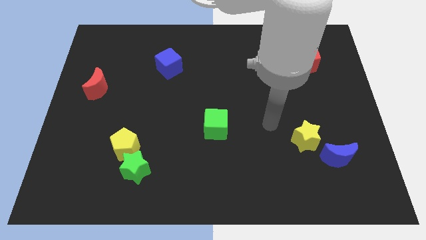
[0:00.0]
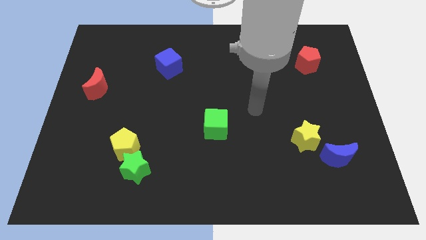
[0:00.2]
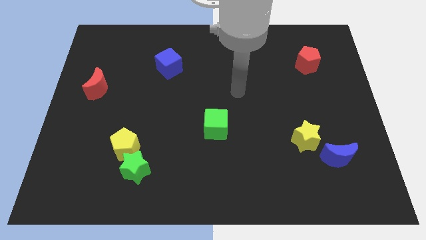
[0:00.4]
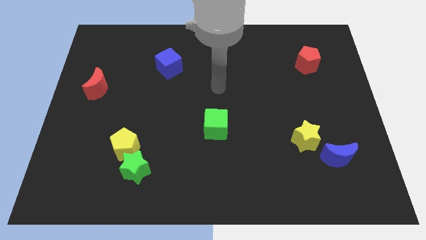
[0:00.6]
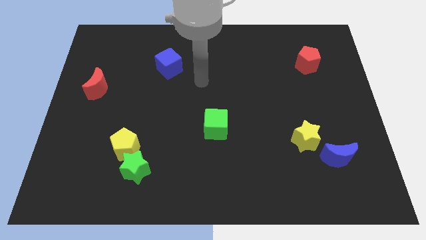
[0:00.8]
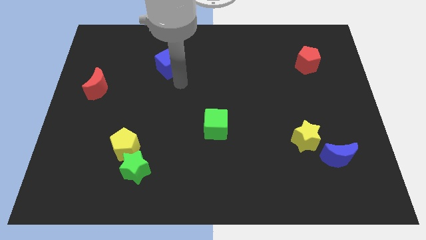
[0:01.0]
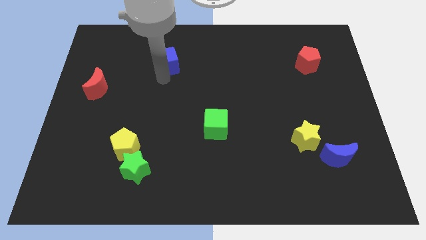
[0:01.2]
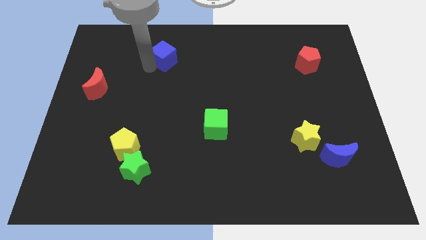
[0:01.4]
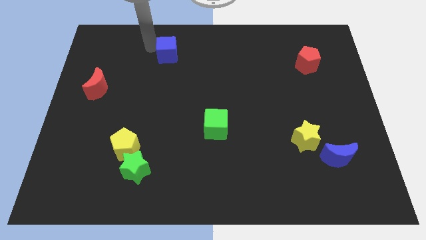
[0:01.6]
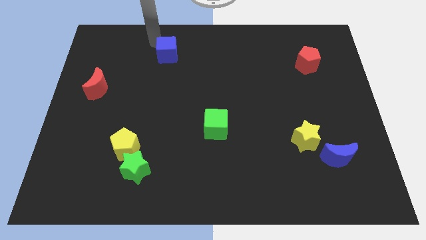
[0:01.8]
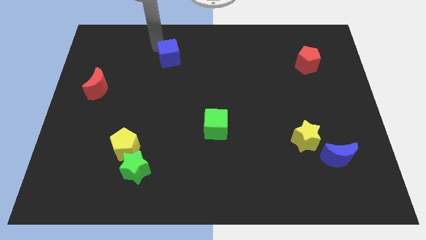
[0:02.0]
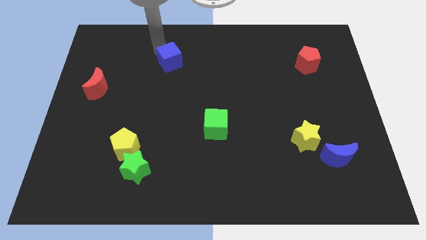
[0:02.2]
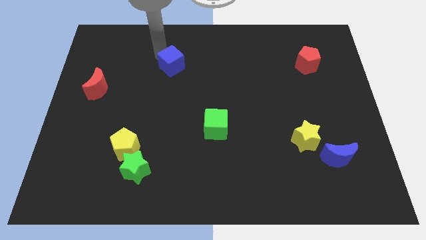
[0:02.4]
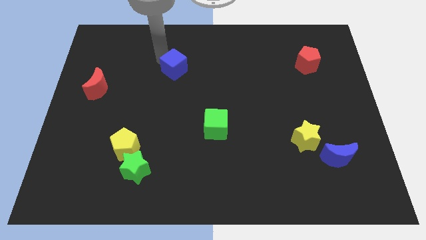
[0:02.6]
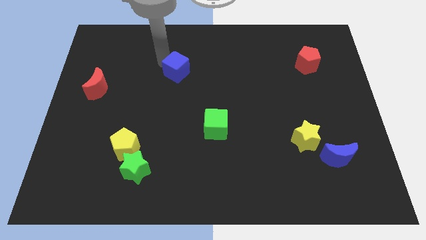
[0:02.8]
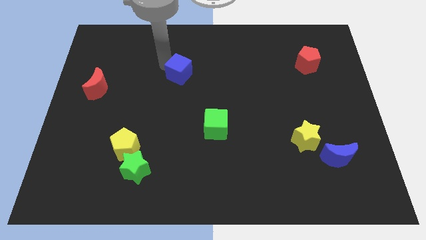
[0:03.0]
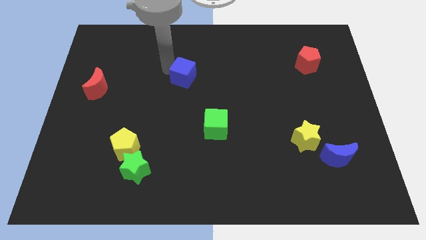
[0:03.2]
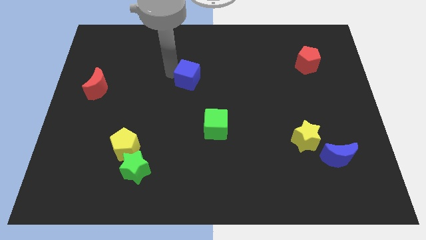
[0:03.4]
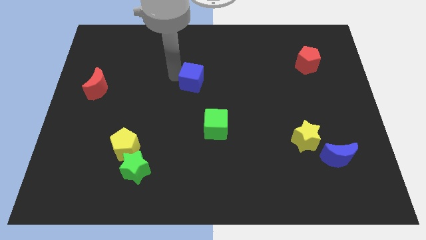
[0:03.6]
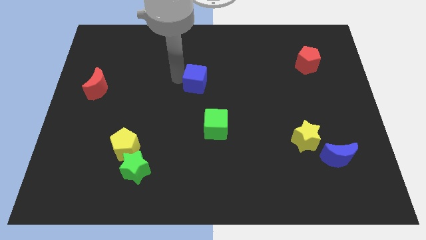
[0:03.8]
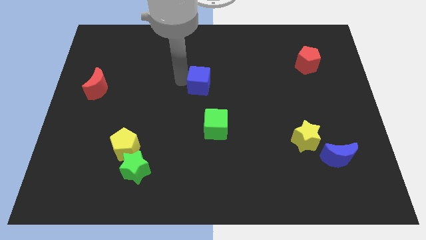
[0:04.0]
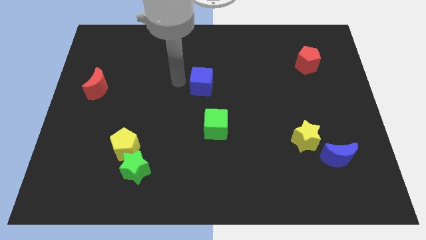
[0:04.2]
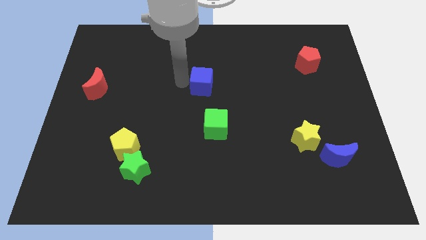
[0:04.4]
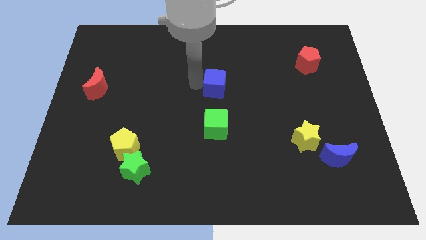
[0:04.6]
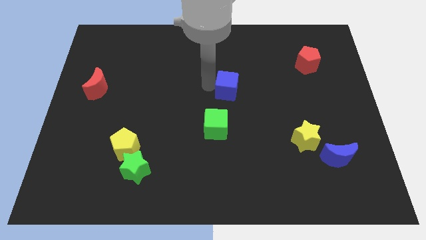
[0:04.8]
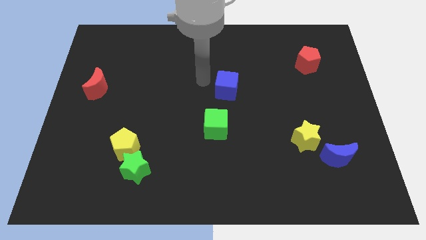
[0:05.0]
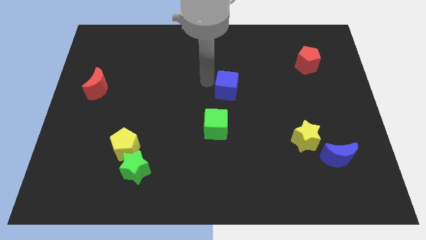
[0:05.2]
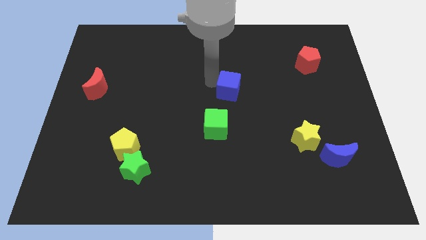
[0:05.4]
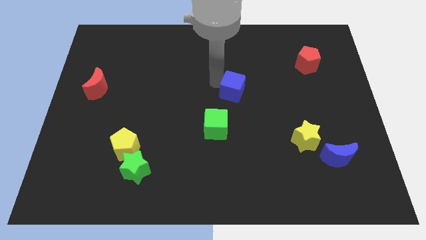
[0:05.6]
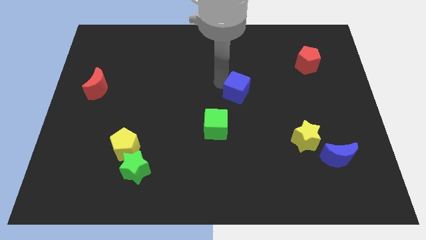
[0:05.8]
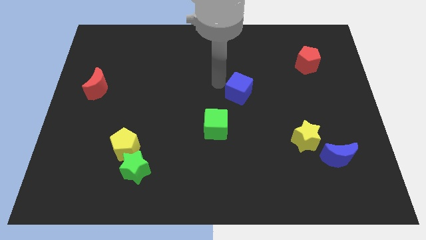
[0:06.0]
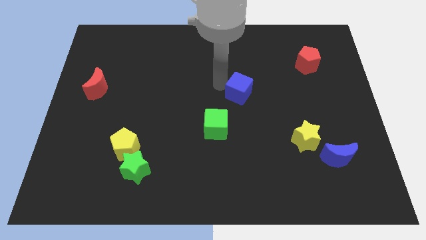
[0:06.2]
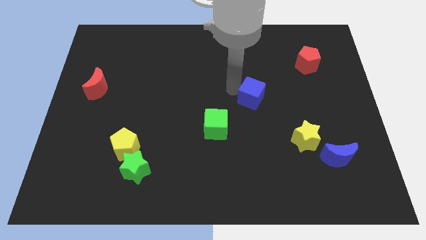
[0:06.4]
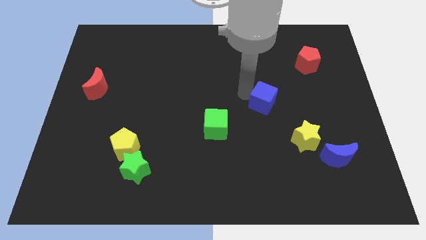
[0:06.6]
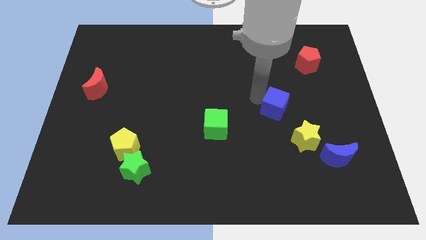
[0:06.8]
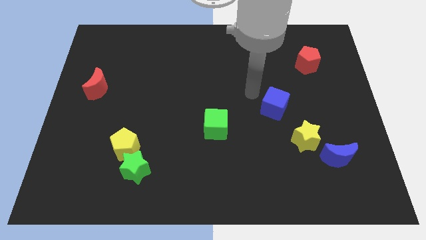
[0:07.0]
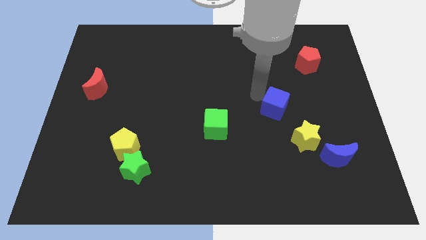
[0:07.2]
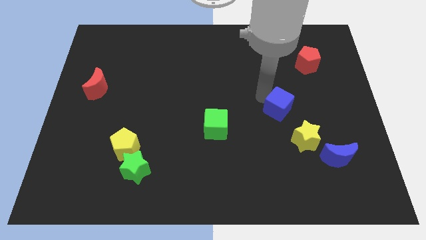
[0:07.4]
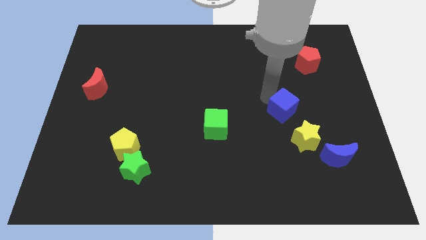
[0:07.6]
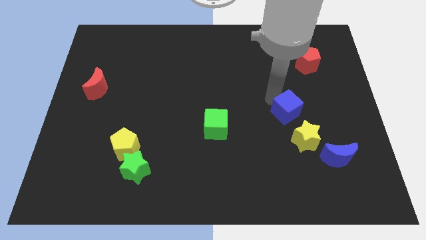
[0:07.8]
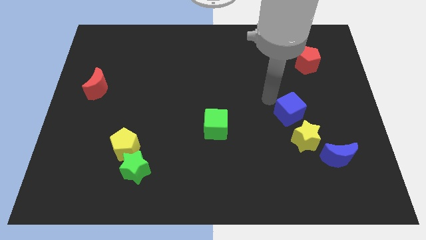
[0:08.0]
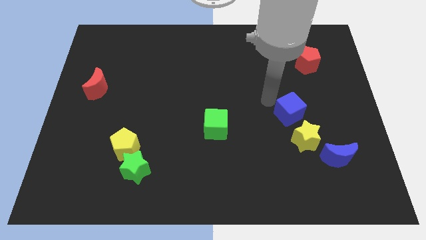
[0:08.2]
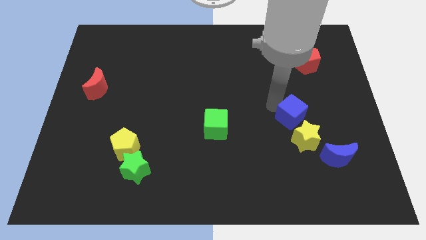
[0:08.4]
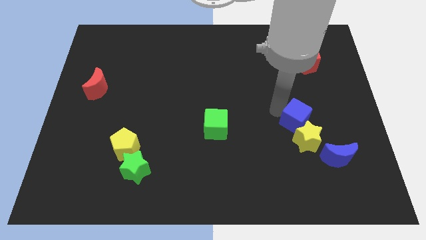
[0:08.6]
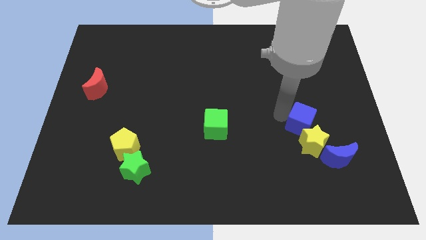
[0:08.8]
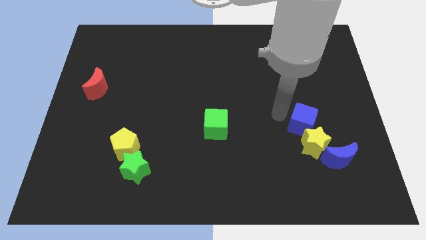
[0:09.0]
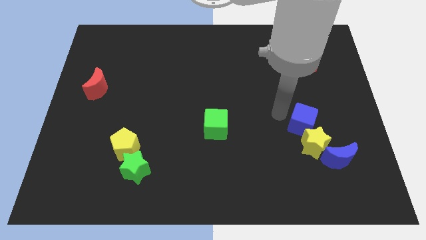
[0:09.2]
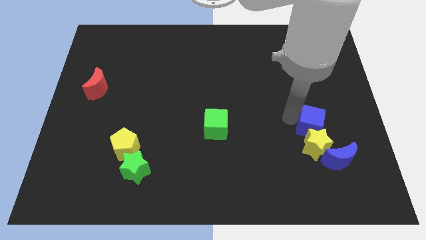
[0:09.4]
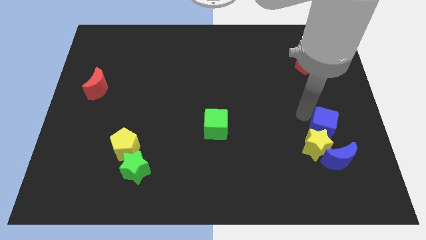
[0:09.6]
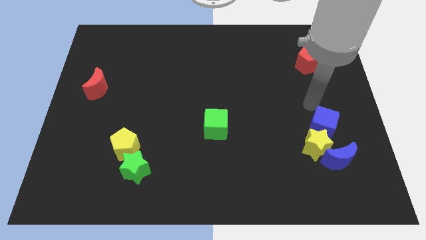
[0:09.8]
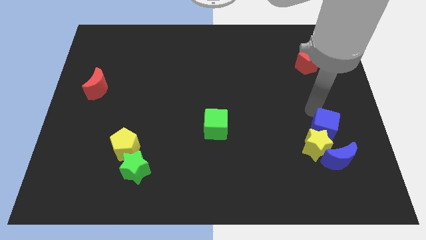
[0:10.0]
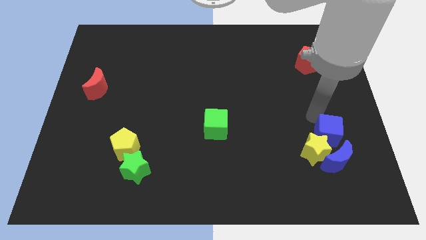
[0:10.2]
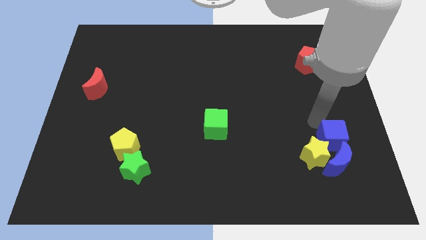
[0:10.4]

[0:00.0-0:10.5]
push the blue cube next to the blue moon

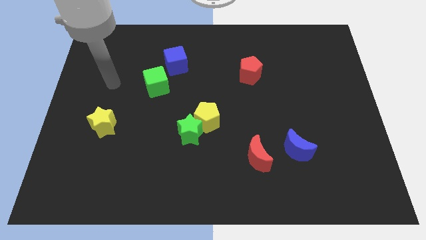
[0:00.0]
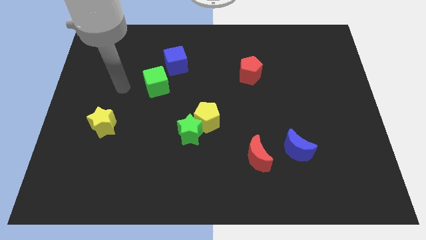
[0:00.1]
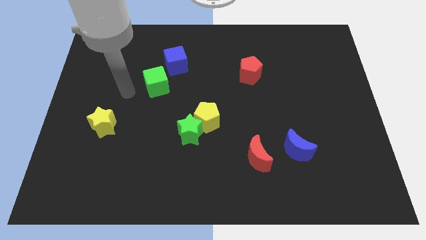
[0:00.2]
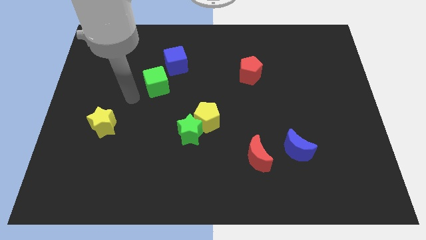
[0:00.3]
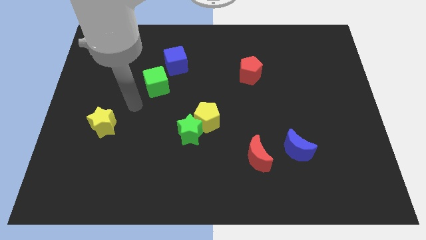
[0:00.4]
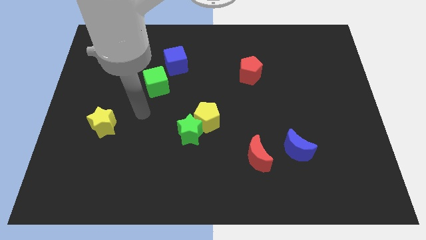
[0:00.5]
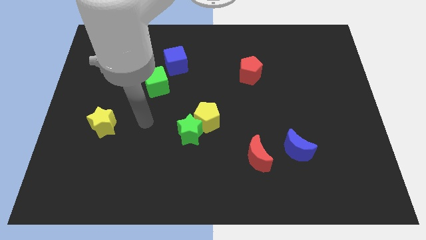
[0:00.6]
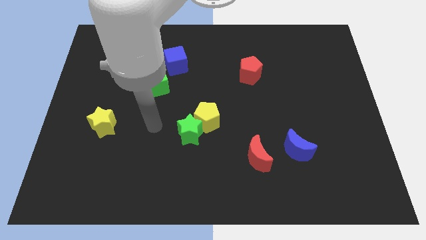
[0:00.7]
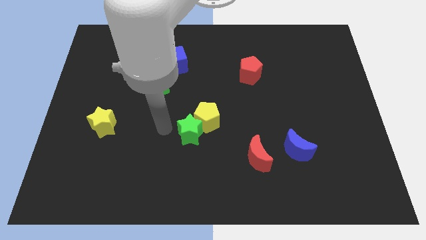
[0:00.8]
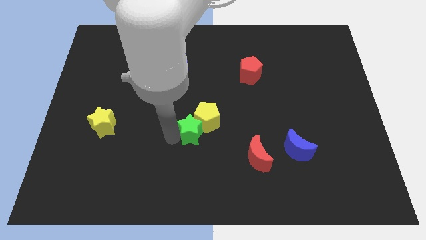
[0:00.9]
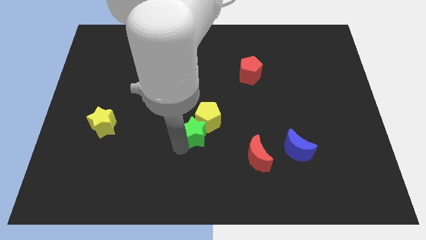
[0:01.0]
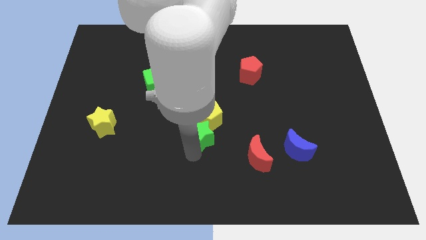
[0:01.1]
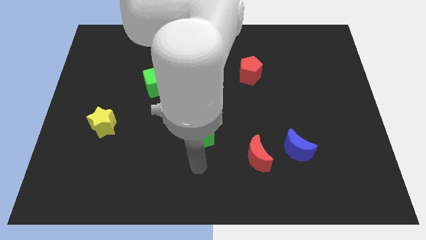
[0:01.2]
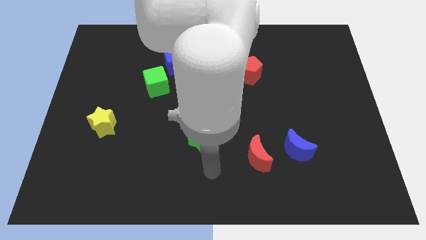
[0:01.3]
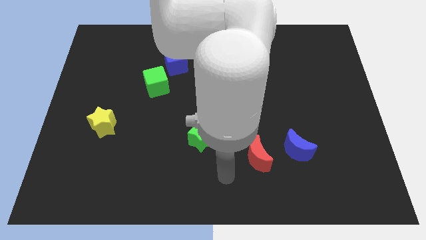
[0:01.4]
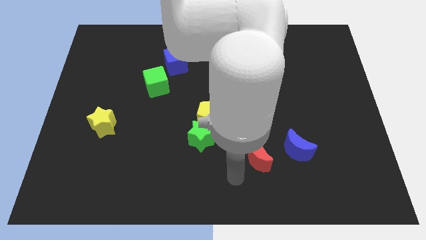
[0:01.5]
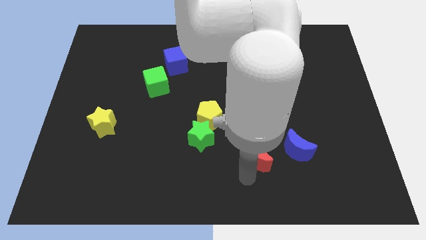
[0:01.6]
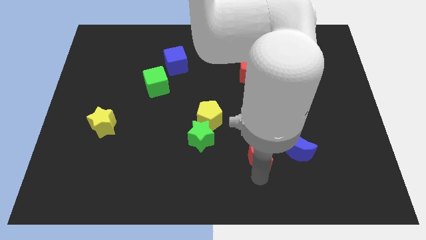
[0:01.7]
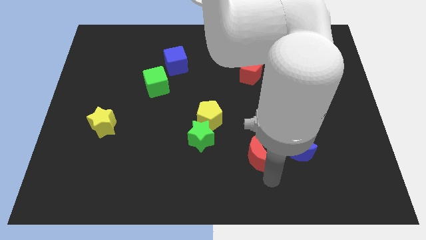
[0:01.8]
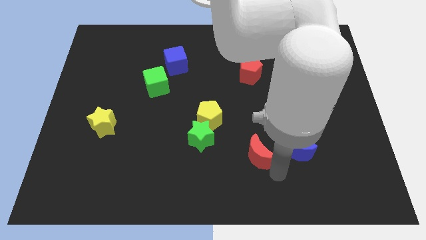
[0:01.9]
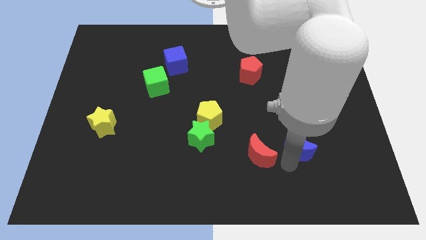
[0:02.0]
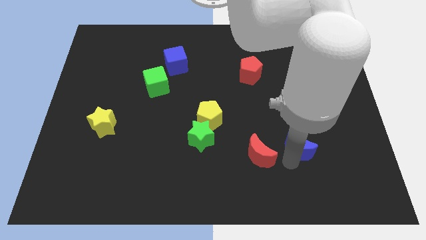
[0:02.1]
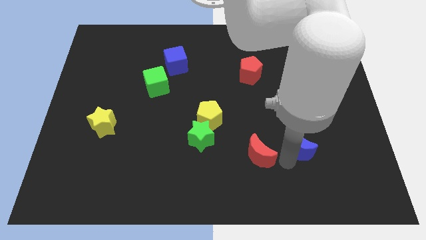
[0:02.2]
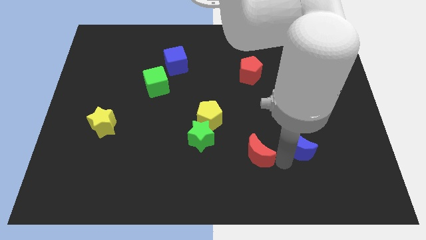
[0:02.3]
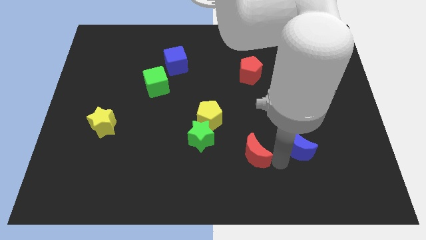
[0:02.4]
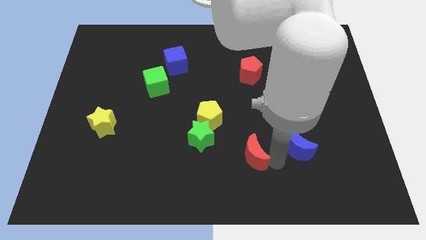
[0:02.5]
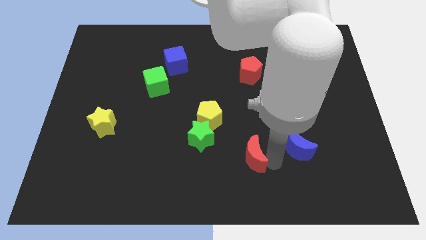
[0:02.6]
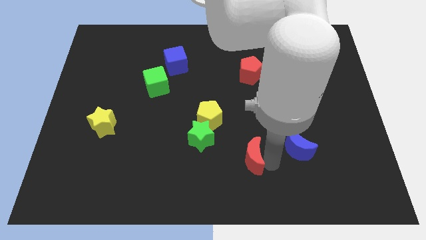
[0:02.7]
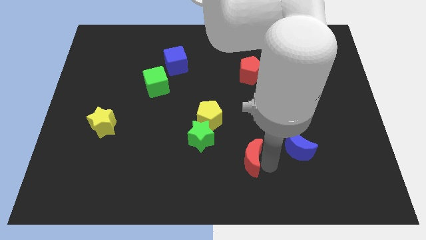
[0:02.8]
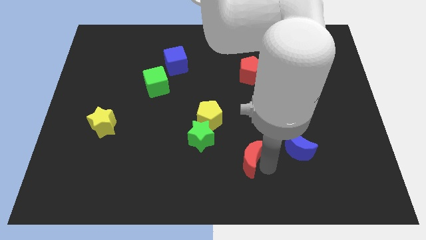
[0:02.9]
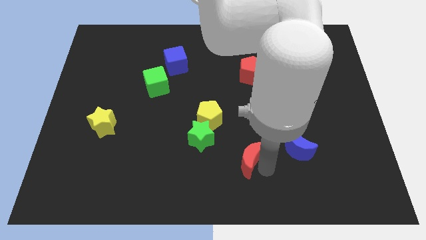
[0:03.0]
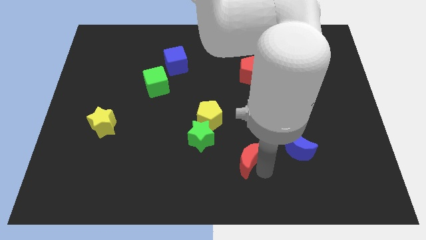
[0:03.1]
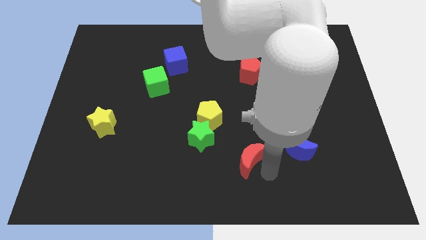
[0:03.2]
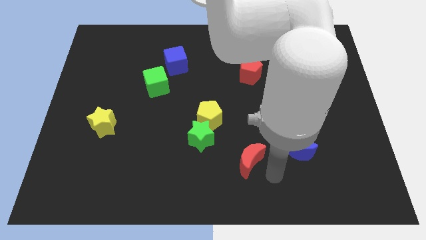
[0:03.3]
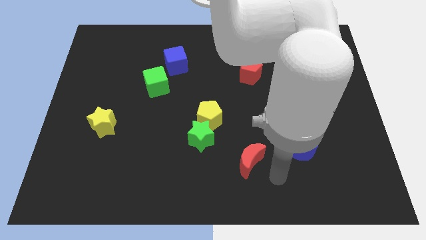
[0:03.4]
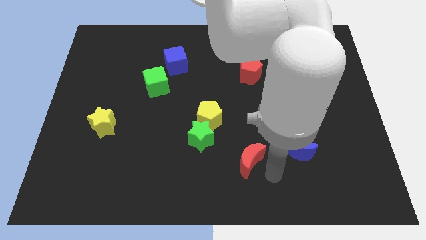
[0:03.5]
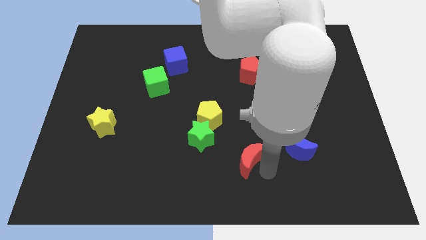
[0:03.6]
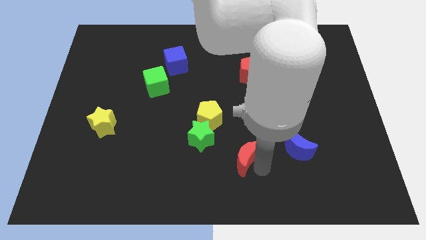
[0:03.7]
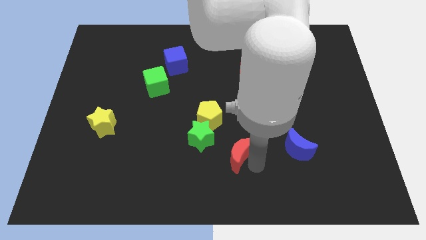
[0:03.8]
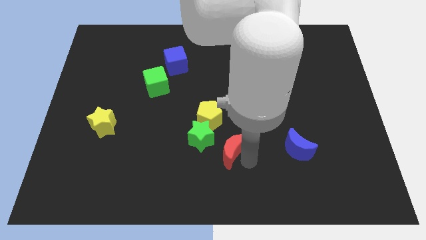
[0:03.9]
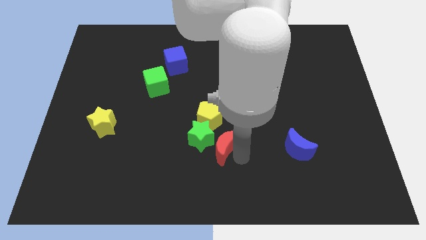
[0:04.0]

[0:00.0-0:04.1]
slide the red moon next to the green star
